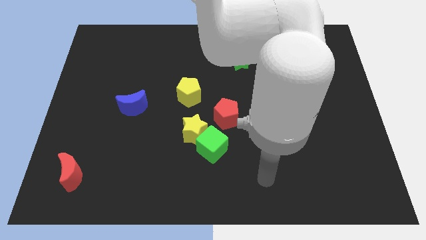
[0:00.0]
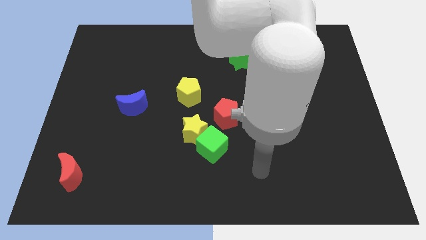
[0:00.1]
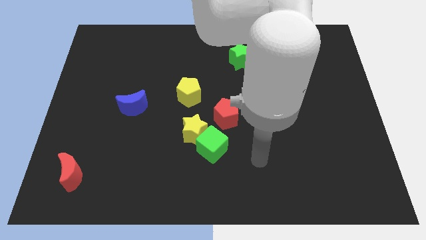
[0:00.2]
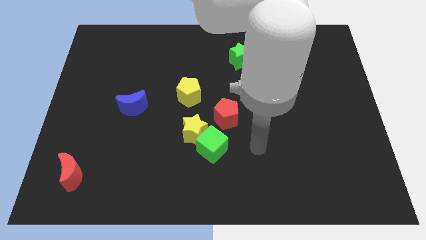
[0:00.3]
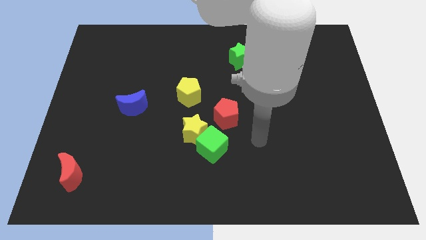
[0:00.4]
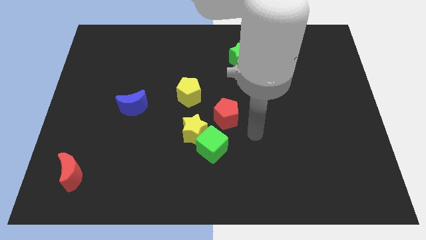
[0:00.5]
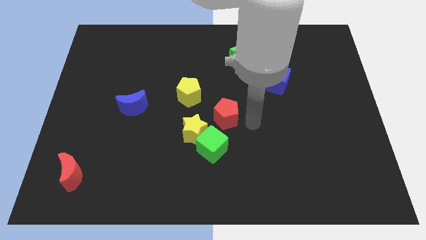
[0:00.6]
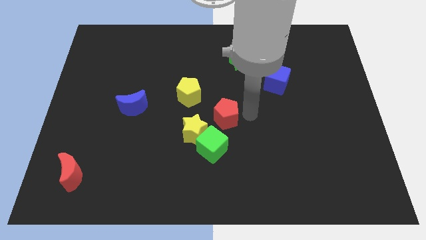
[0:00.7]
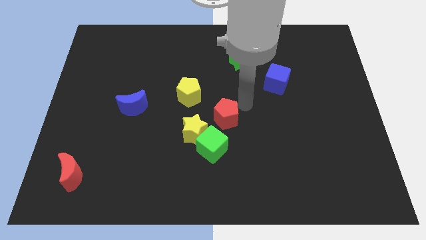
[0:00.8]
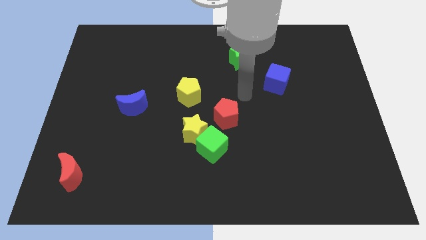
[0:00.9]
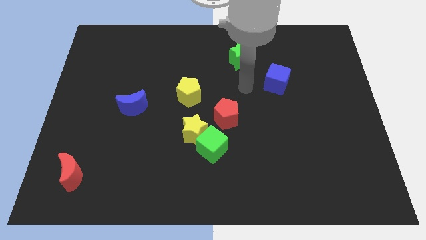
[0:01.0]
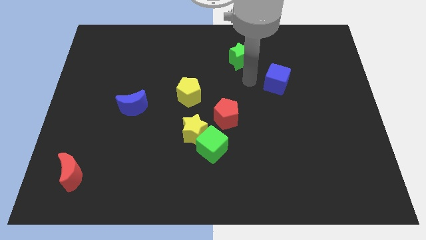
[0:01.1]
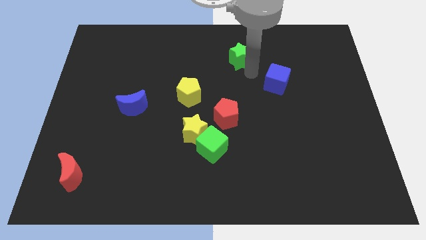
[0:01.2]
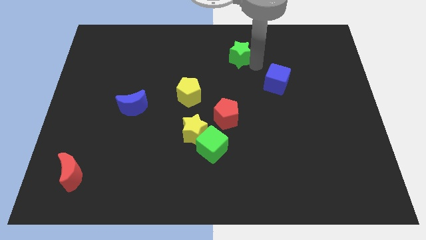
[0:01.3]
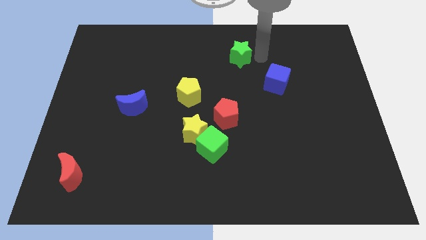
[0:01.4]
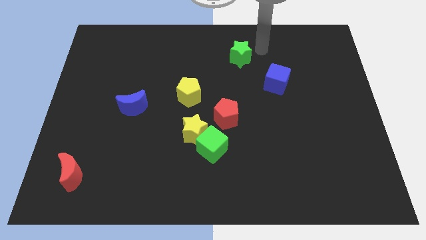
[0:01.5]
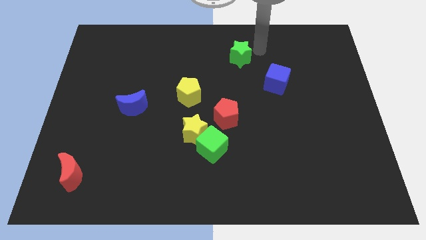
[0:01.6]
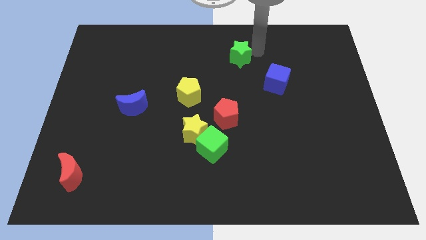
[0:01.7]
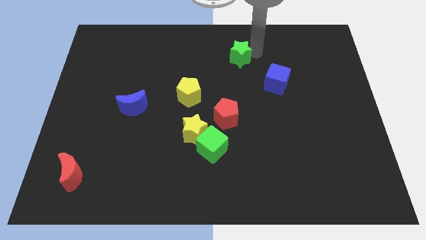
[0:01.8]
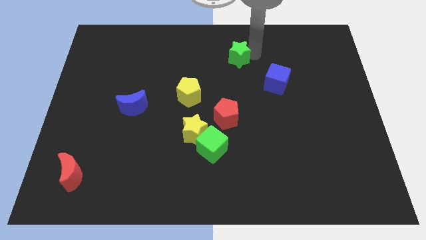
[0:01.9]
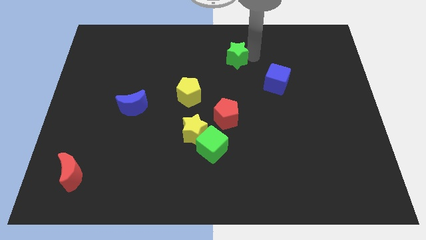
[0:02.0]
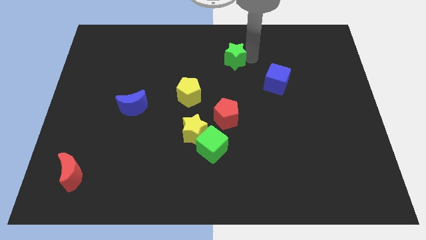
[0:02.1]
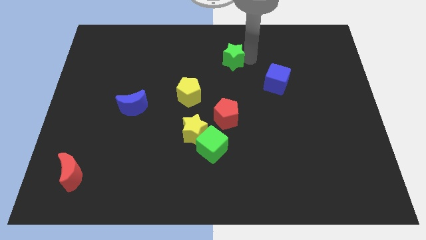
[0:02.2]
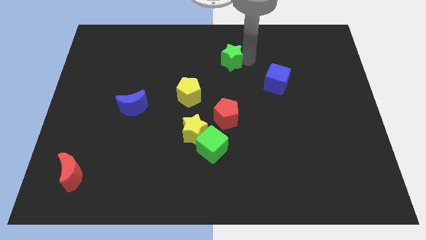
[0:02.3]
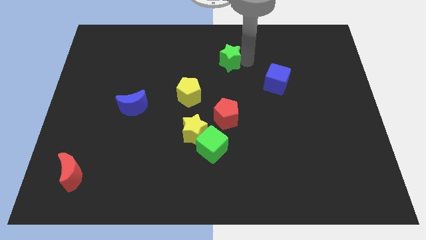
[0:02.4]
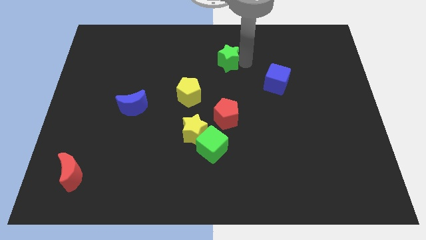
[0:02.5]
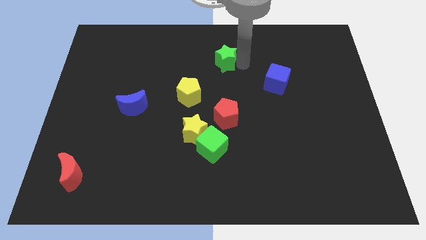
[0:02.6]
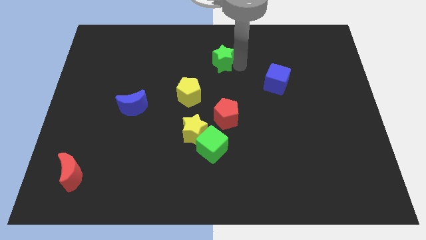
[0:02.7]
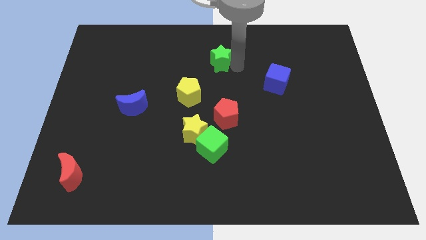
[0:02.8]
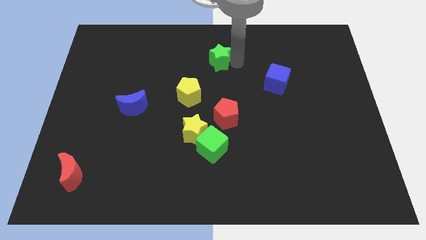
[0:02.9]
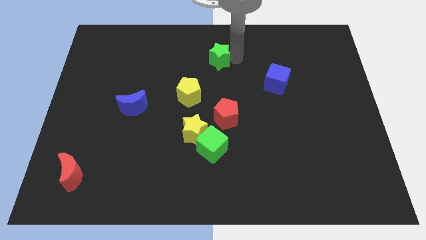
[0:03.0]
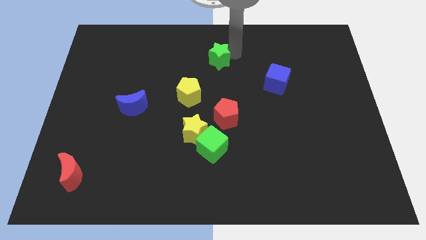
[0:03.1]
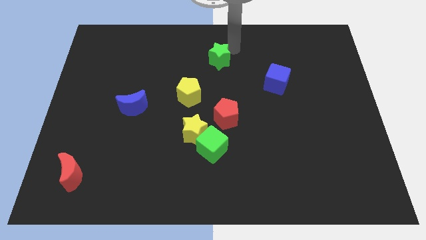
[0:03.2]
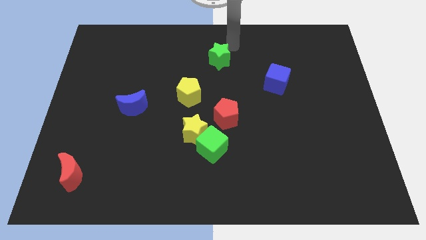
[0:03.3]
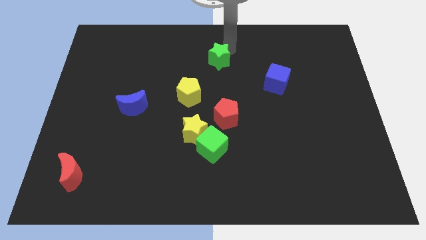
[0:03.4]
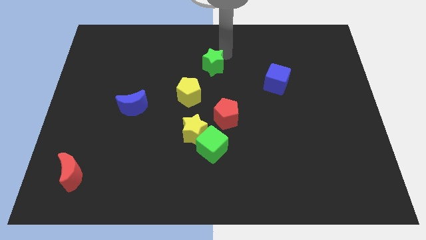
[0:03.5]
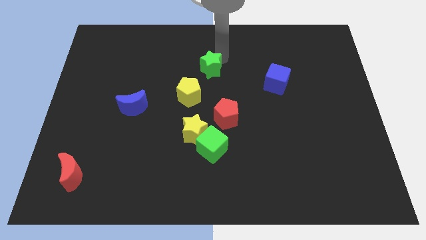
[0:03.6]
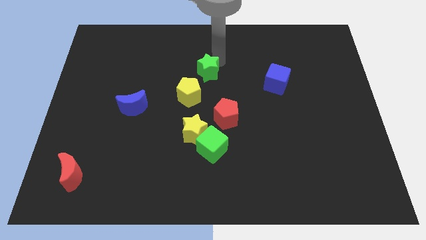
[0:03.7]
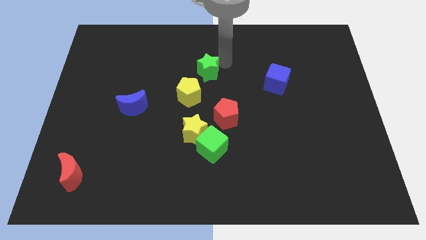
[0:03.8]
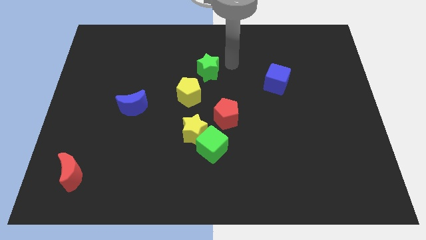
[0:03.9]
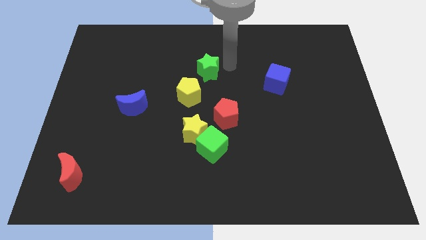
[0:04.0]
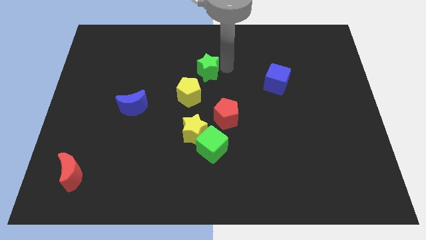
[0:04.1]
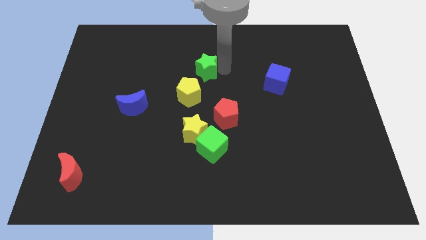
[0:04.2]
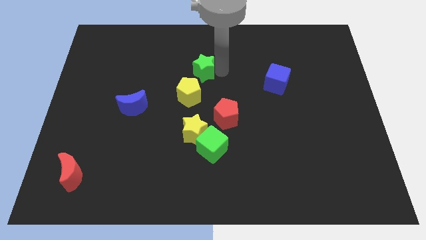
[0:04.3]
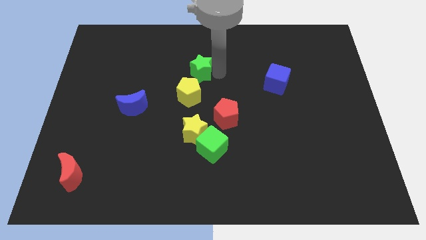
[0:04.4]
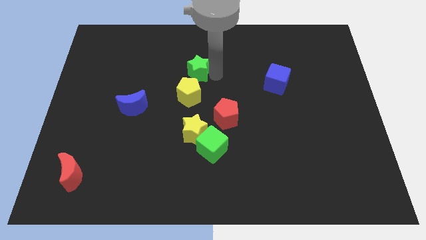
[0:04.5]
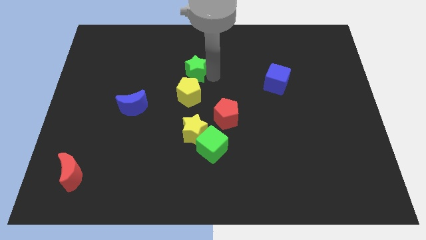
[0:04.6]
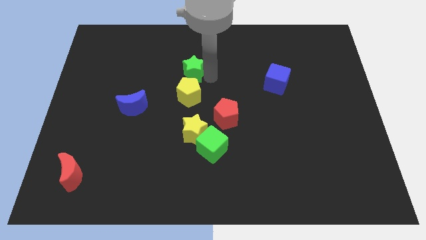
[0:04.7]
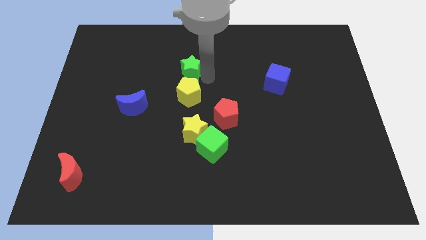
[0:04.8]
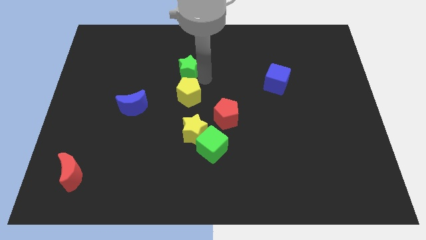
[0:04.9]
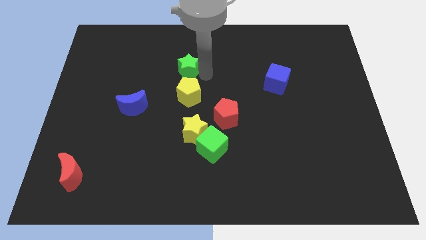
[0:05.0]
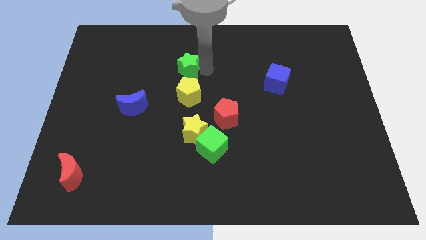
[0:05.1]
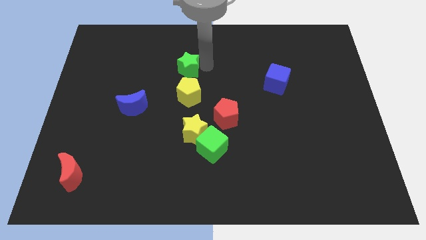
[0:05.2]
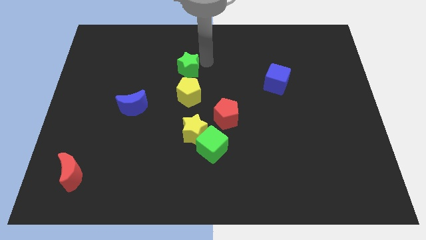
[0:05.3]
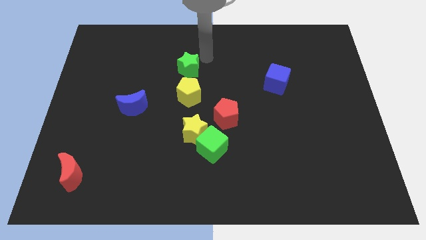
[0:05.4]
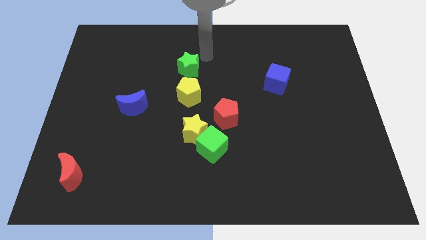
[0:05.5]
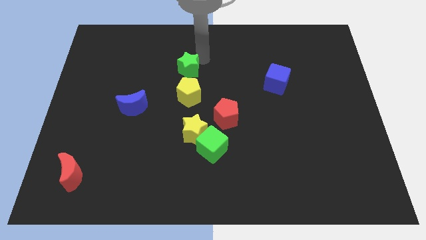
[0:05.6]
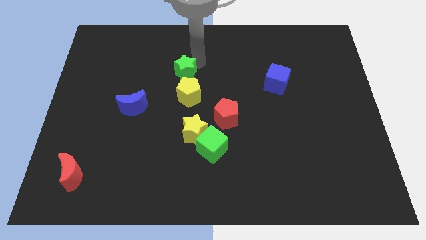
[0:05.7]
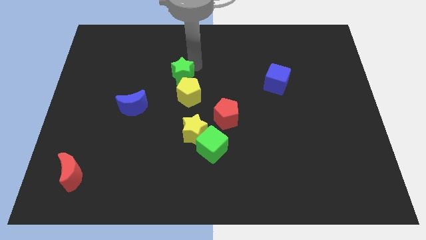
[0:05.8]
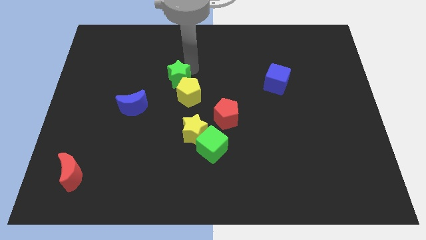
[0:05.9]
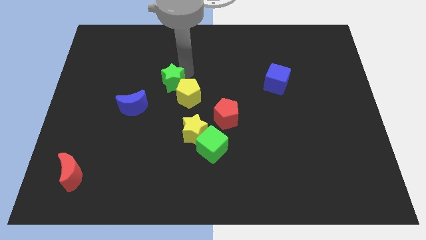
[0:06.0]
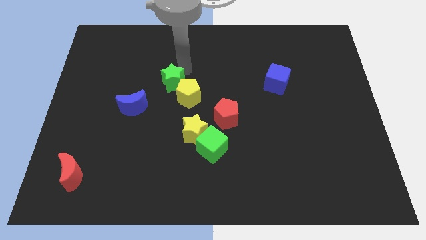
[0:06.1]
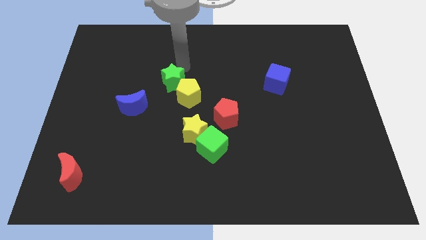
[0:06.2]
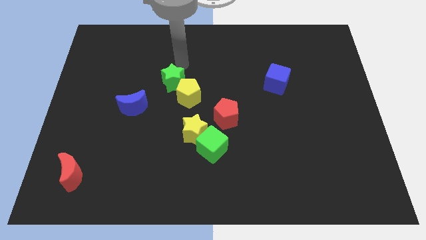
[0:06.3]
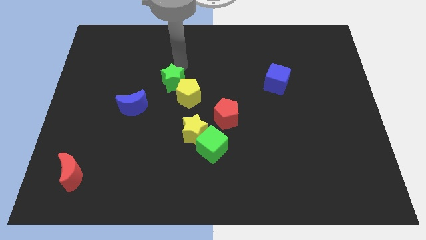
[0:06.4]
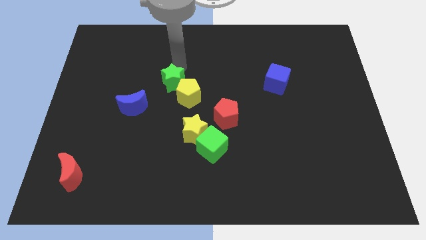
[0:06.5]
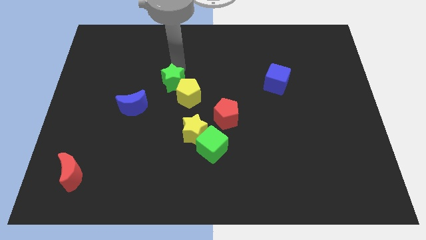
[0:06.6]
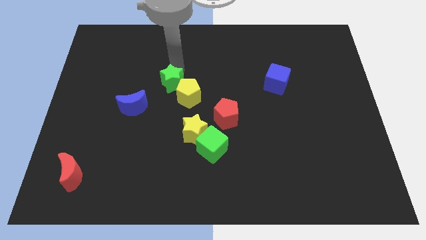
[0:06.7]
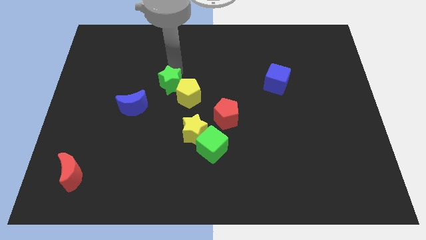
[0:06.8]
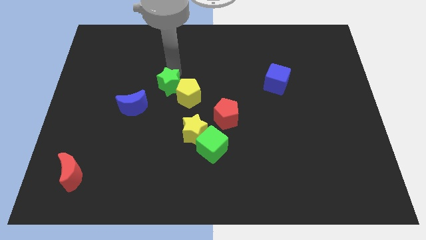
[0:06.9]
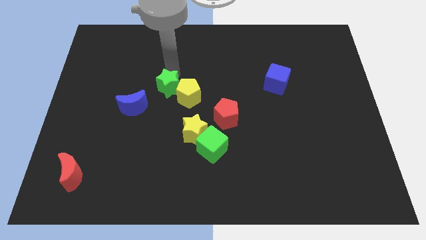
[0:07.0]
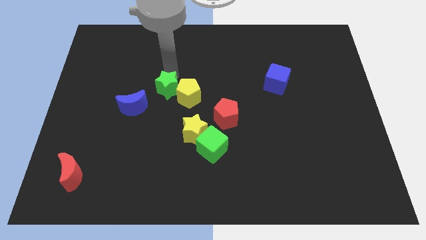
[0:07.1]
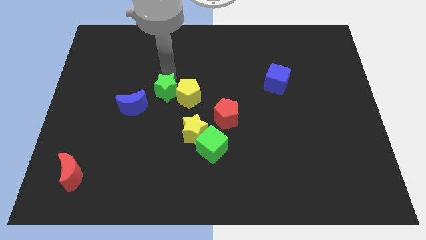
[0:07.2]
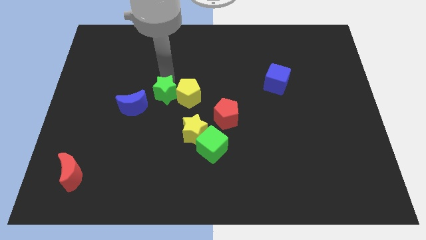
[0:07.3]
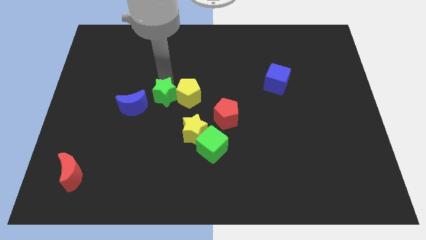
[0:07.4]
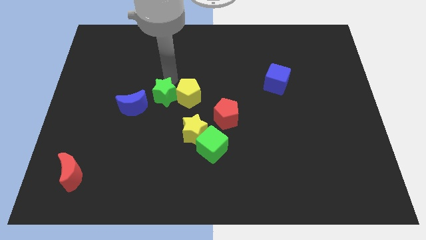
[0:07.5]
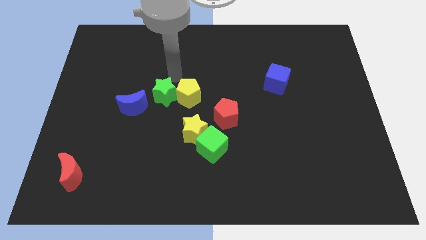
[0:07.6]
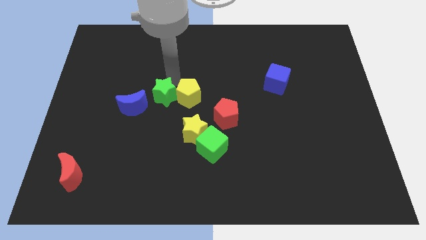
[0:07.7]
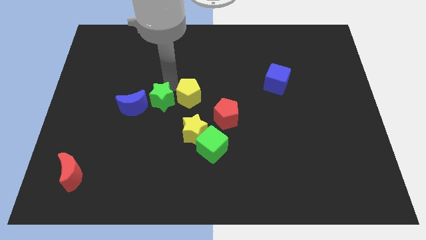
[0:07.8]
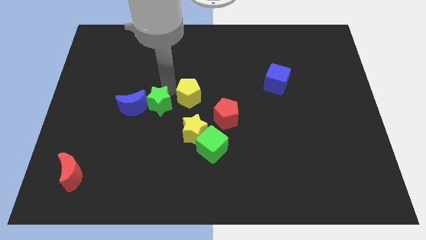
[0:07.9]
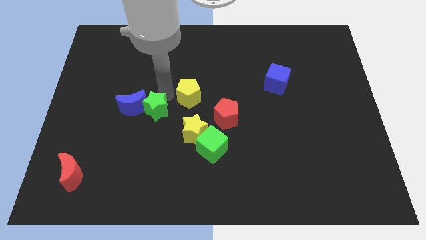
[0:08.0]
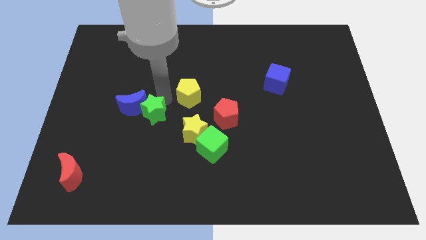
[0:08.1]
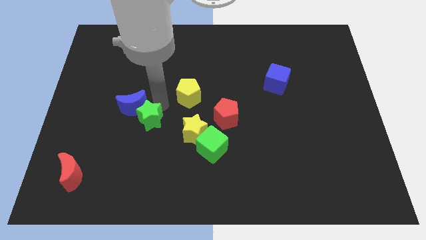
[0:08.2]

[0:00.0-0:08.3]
move the green star to the bottom of the blue moon
